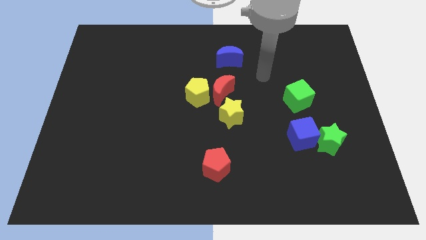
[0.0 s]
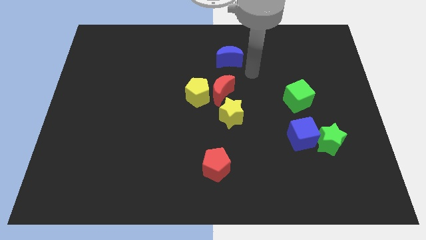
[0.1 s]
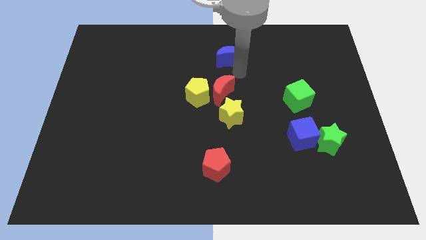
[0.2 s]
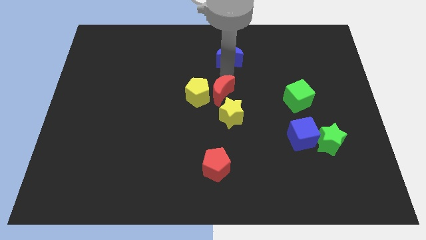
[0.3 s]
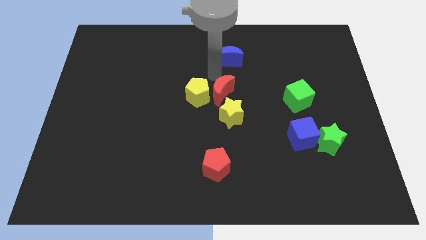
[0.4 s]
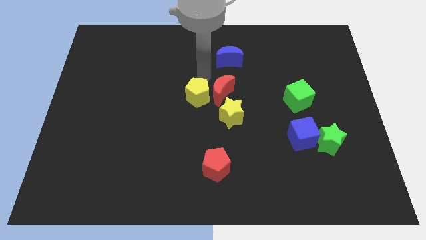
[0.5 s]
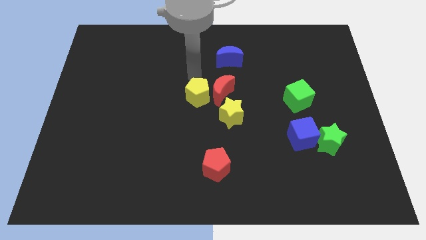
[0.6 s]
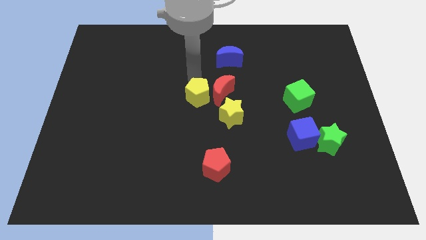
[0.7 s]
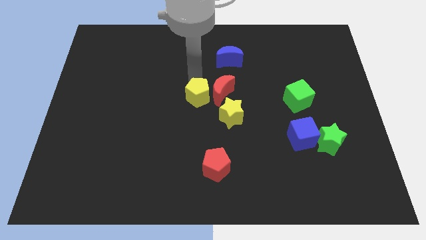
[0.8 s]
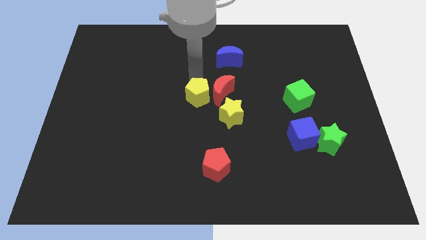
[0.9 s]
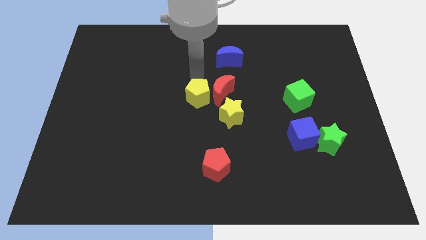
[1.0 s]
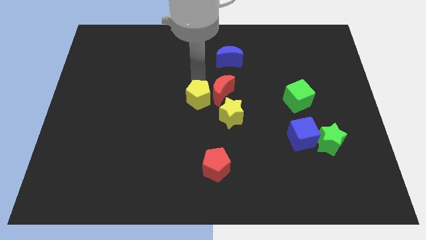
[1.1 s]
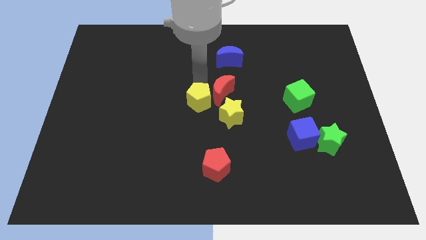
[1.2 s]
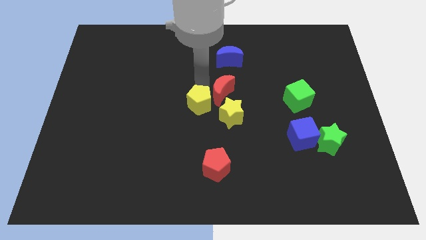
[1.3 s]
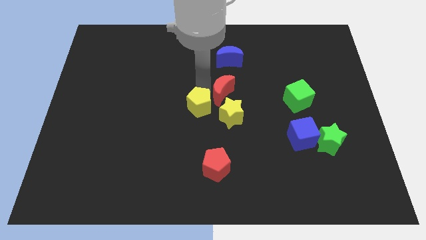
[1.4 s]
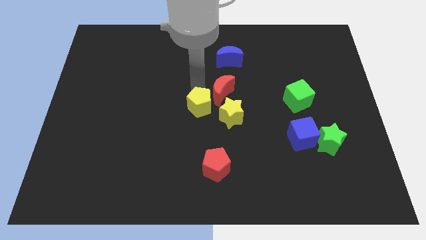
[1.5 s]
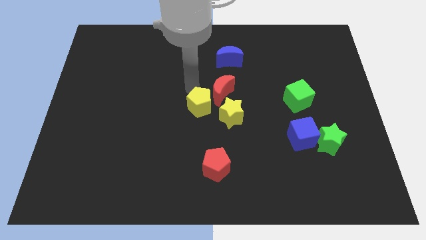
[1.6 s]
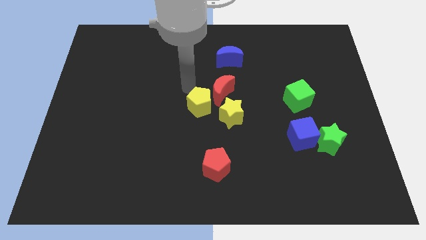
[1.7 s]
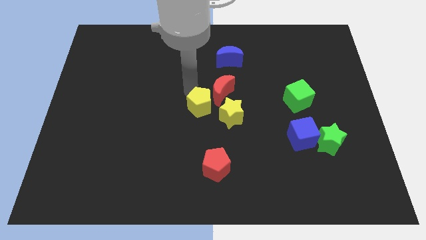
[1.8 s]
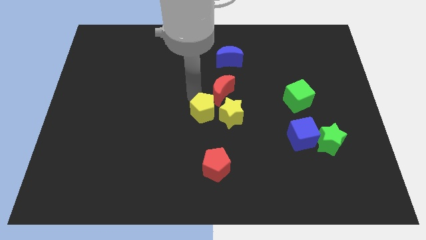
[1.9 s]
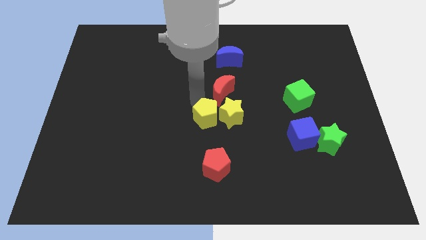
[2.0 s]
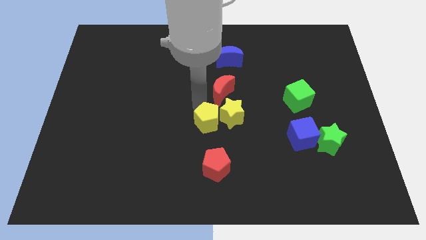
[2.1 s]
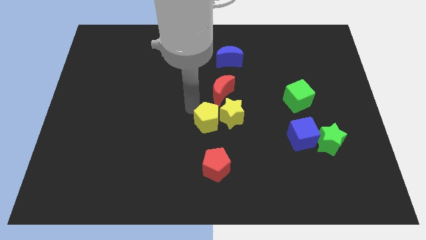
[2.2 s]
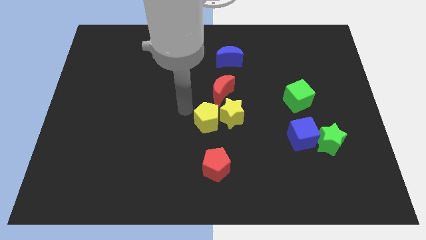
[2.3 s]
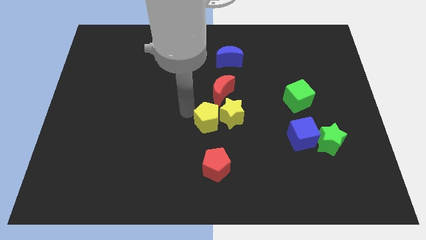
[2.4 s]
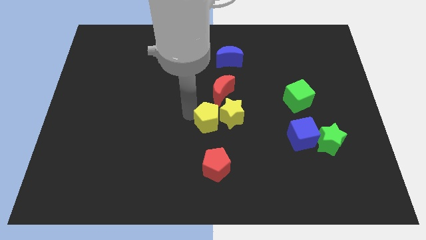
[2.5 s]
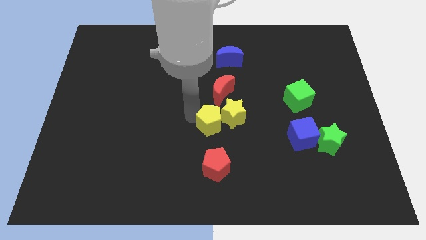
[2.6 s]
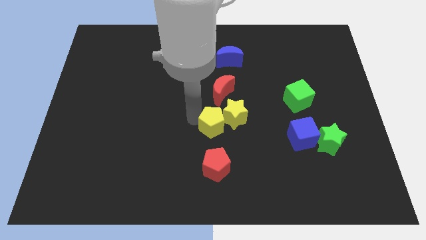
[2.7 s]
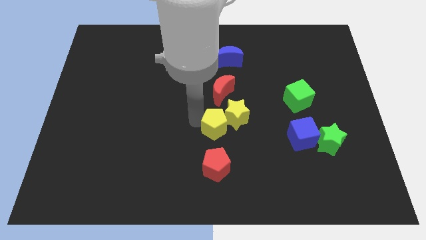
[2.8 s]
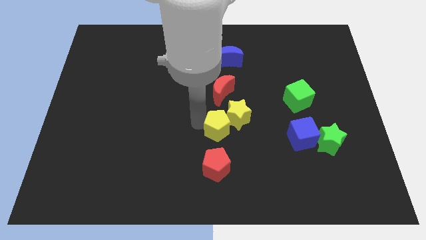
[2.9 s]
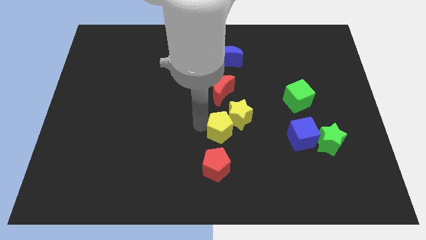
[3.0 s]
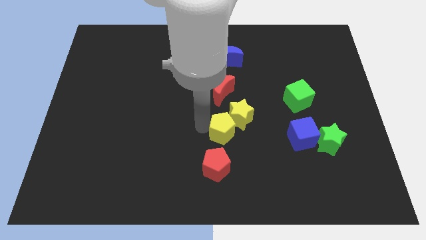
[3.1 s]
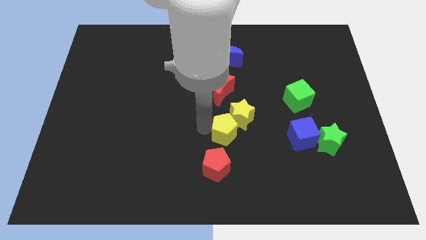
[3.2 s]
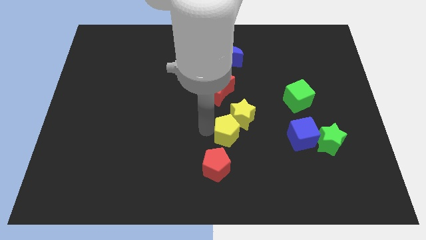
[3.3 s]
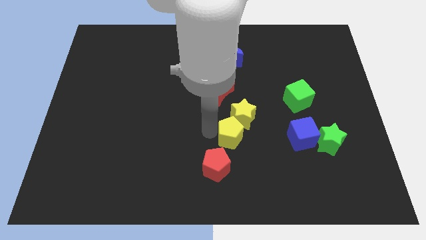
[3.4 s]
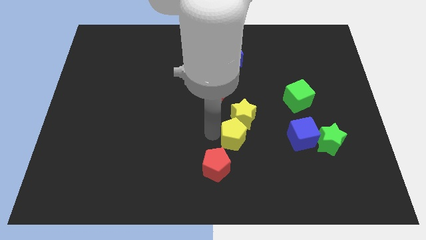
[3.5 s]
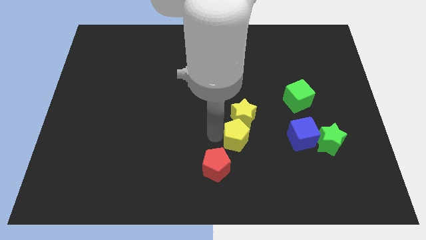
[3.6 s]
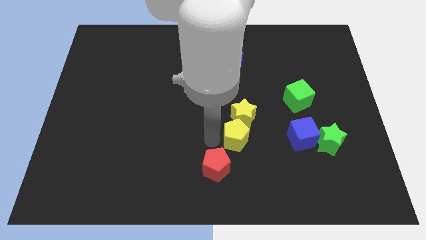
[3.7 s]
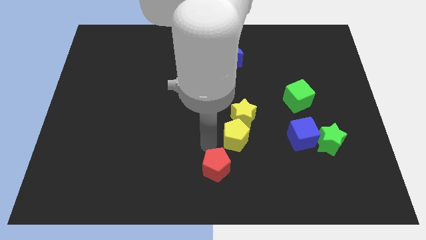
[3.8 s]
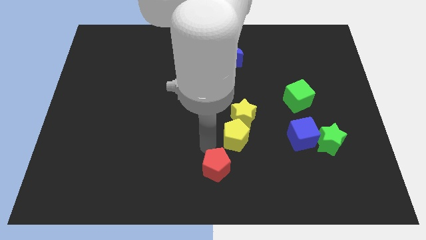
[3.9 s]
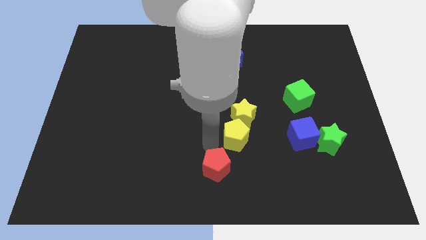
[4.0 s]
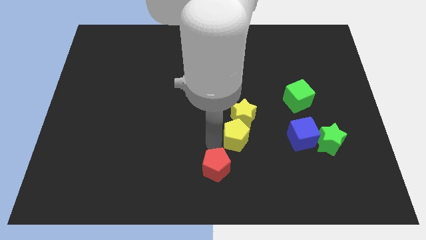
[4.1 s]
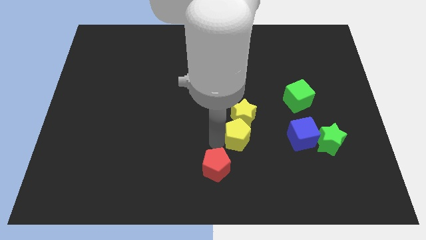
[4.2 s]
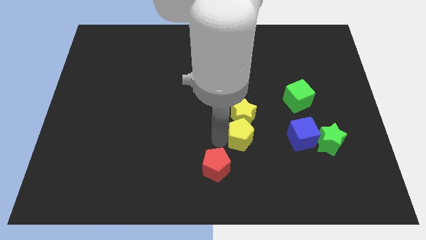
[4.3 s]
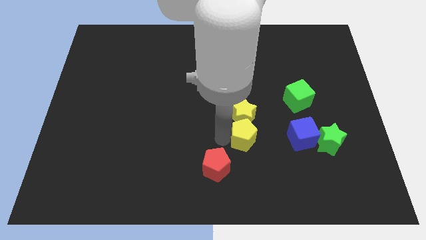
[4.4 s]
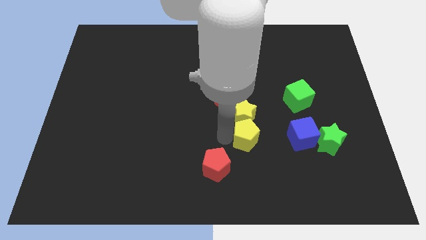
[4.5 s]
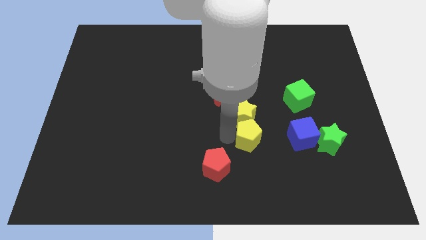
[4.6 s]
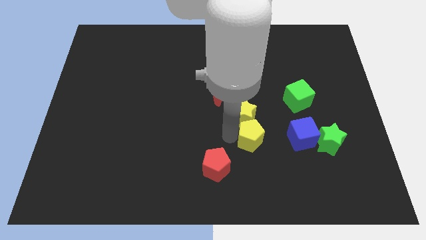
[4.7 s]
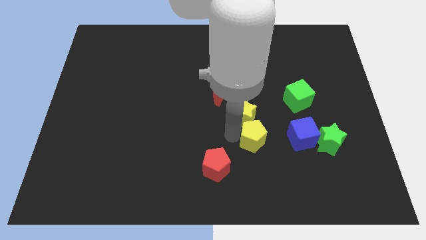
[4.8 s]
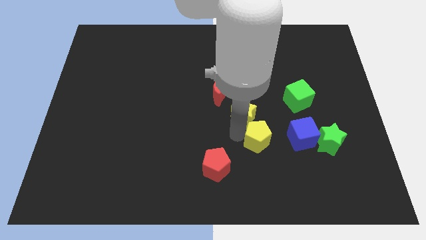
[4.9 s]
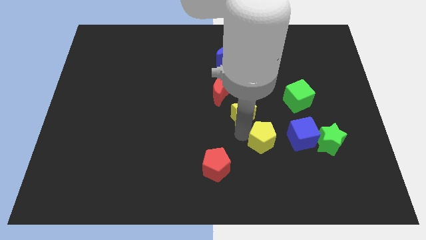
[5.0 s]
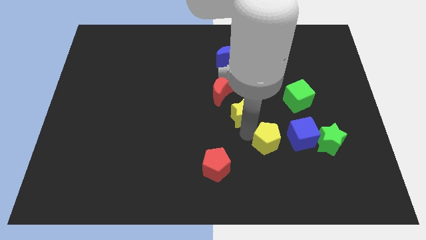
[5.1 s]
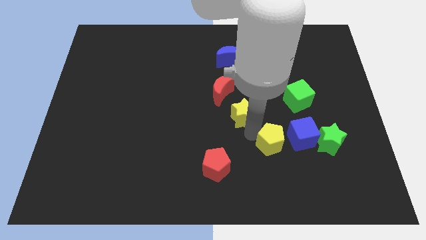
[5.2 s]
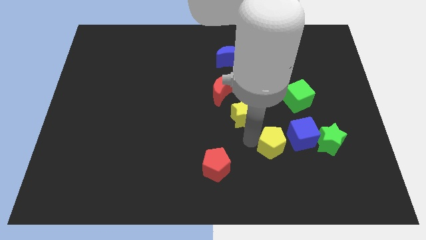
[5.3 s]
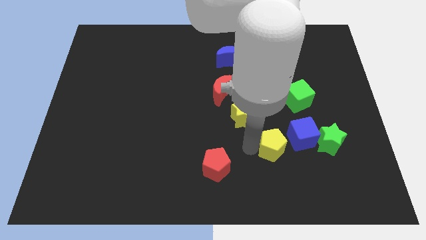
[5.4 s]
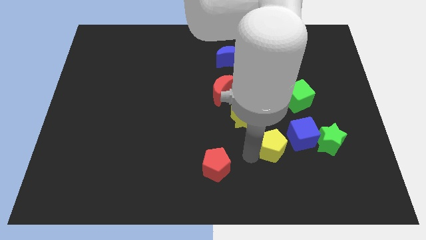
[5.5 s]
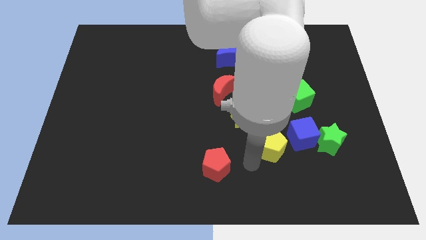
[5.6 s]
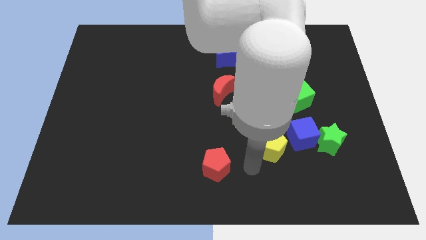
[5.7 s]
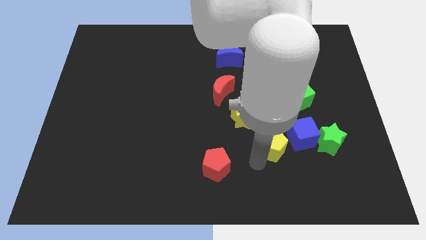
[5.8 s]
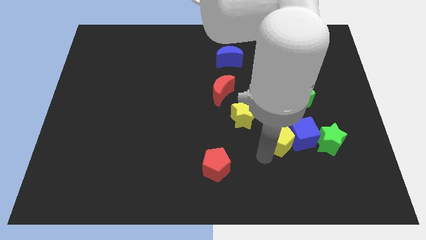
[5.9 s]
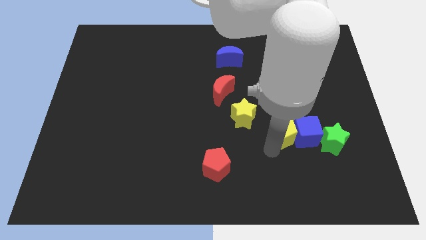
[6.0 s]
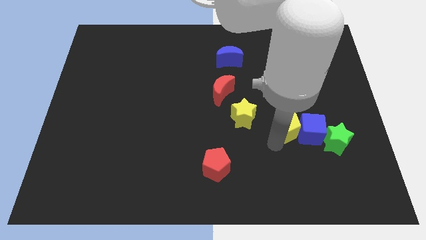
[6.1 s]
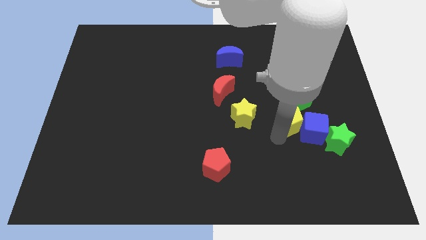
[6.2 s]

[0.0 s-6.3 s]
slide the yellow pentagon to the top left of the green star

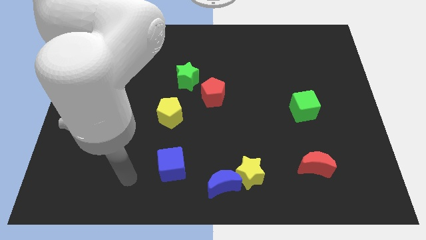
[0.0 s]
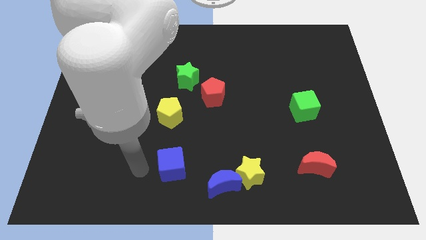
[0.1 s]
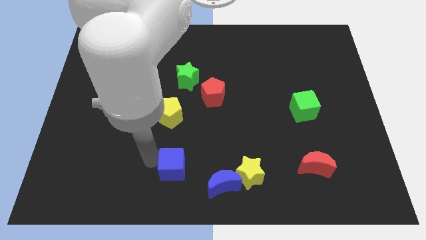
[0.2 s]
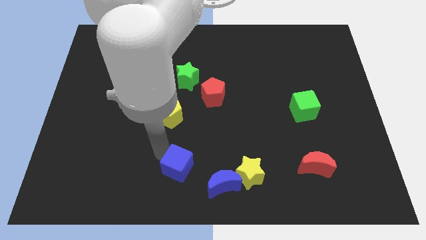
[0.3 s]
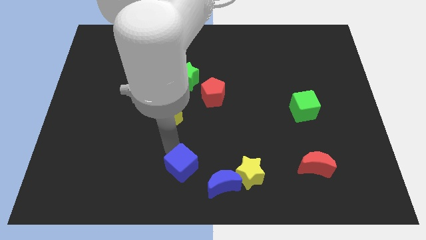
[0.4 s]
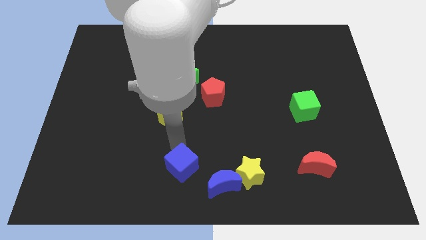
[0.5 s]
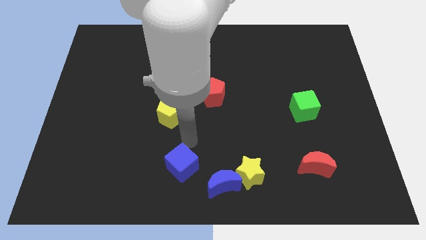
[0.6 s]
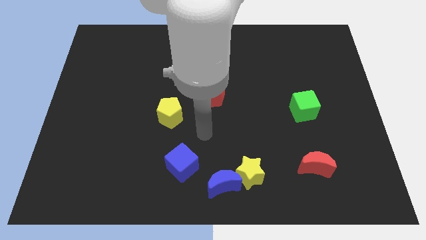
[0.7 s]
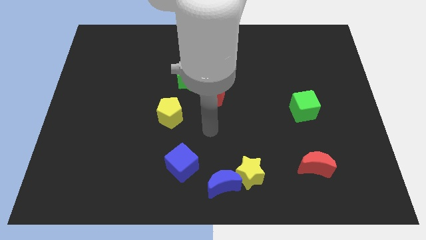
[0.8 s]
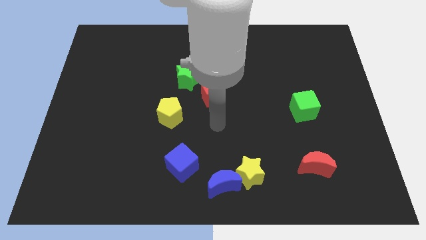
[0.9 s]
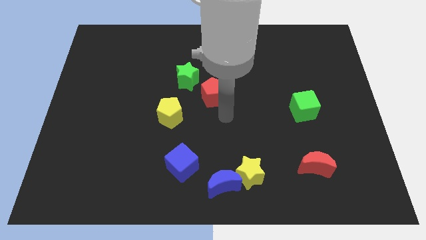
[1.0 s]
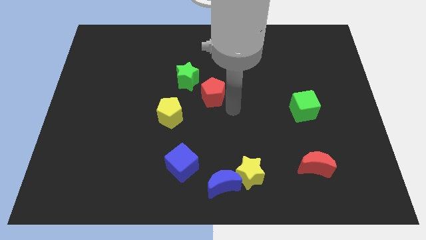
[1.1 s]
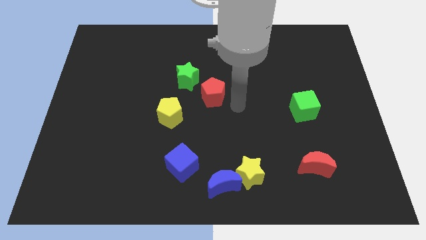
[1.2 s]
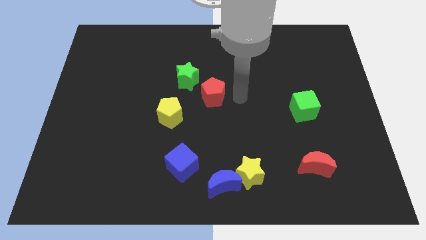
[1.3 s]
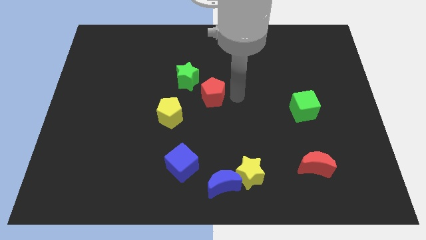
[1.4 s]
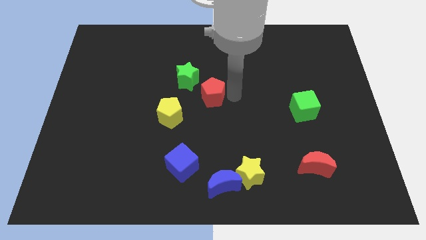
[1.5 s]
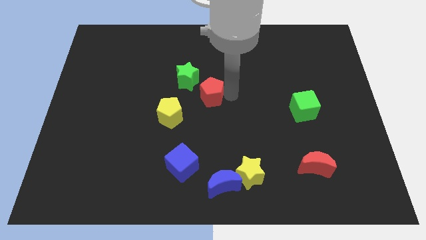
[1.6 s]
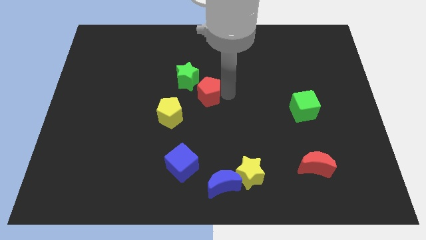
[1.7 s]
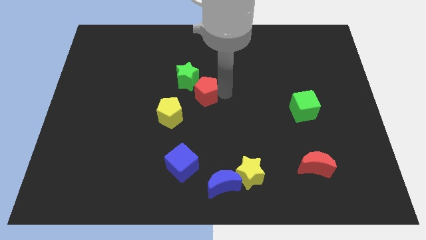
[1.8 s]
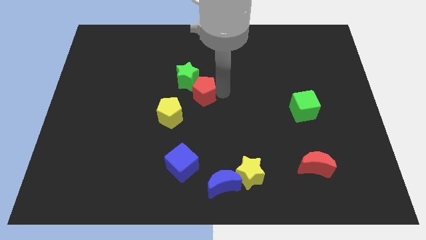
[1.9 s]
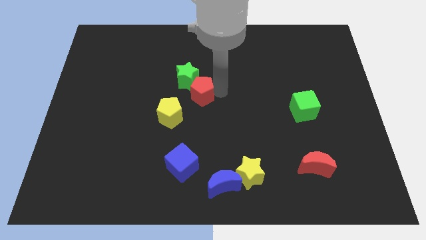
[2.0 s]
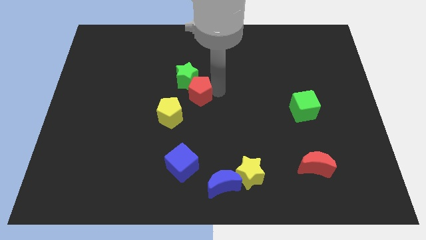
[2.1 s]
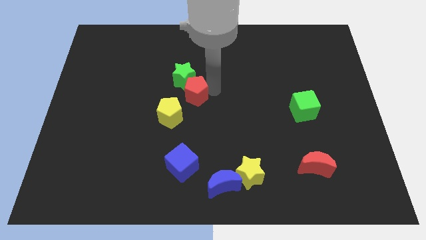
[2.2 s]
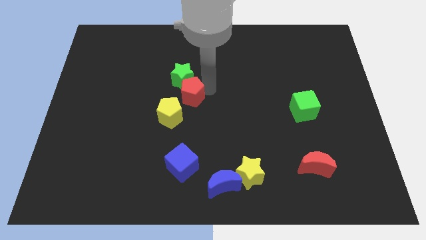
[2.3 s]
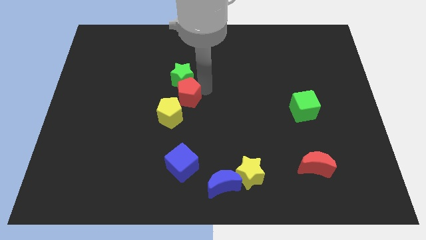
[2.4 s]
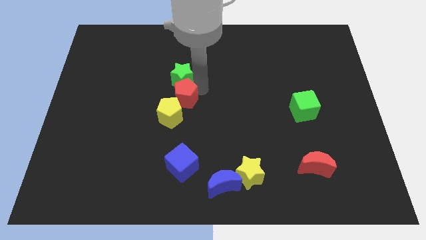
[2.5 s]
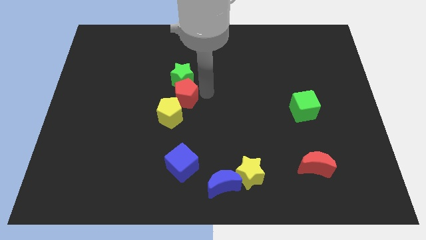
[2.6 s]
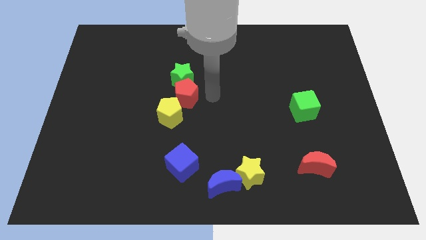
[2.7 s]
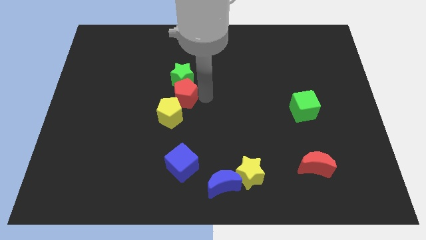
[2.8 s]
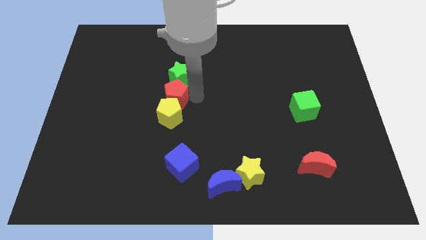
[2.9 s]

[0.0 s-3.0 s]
put the red pentagon to the top left side of the yellow pentagon
